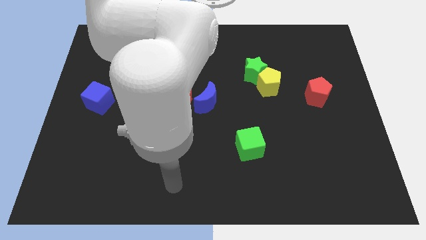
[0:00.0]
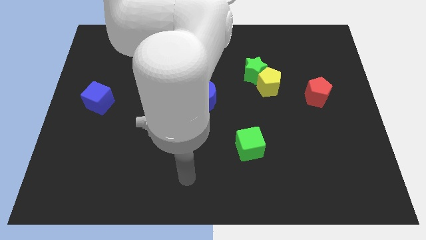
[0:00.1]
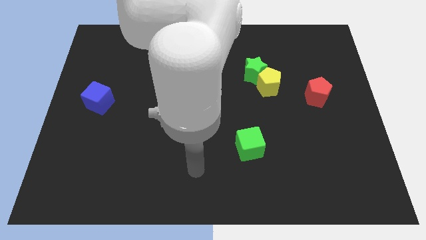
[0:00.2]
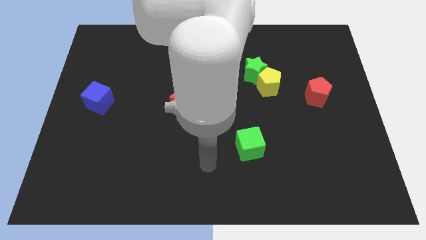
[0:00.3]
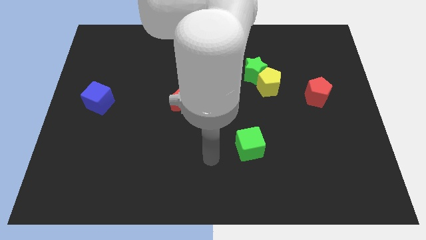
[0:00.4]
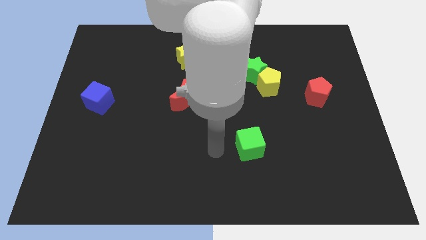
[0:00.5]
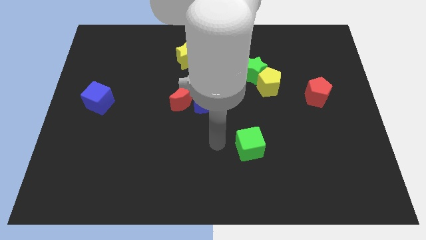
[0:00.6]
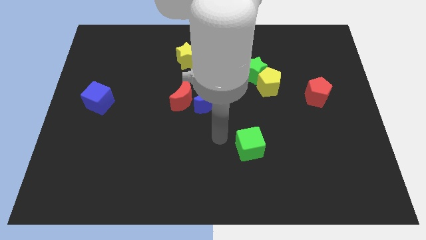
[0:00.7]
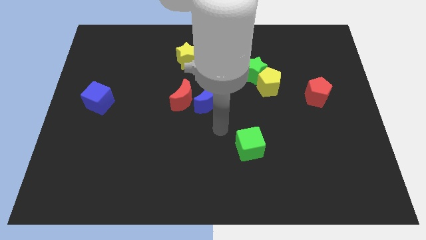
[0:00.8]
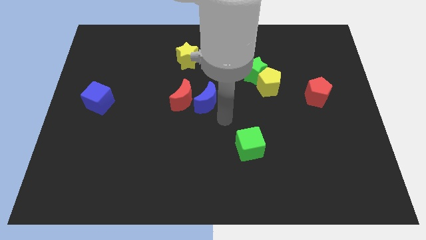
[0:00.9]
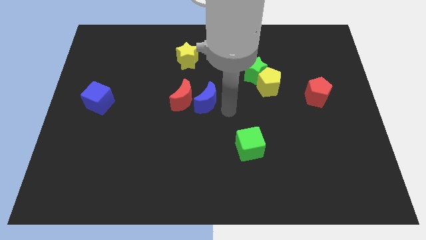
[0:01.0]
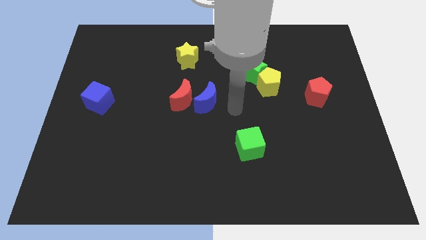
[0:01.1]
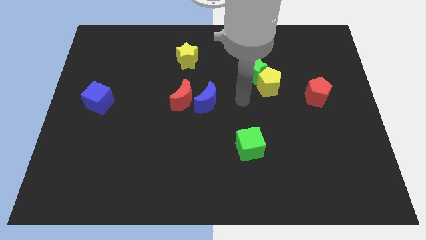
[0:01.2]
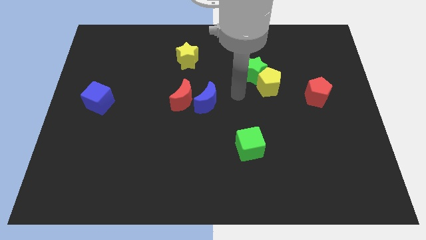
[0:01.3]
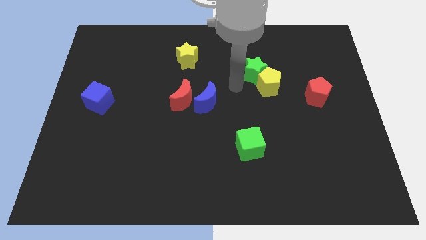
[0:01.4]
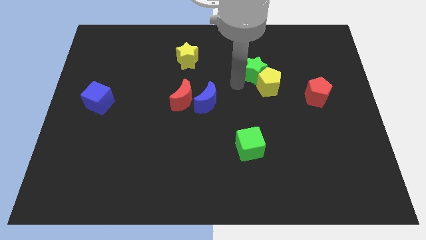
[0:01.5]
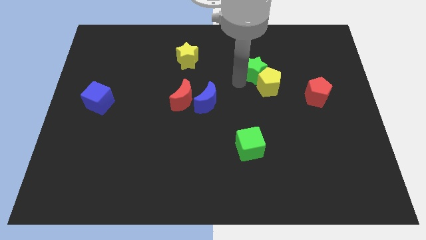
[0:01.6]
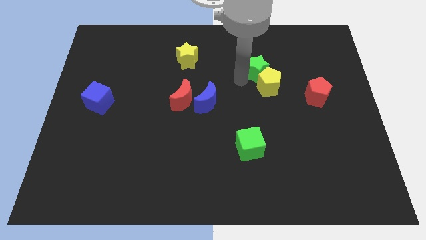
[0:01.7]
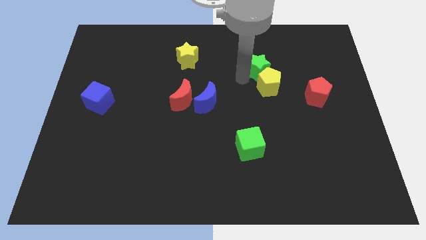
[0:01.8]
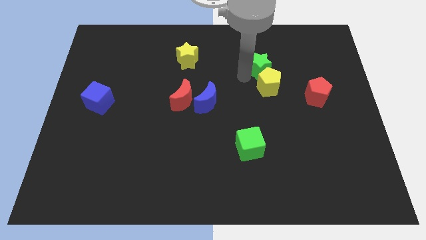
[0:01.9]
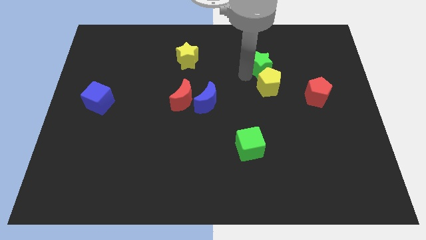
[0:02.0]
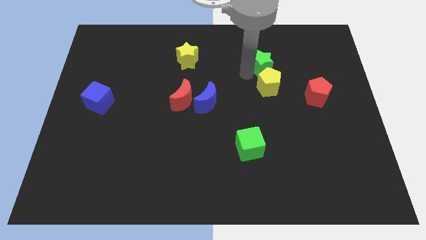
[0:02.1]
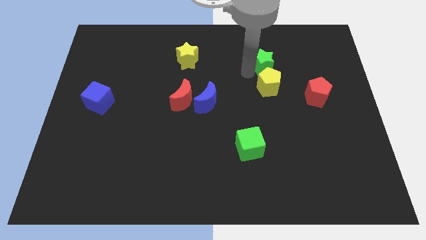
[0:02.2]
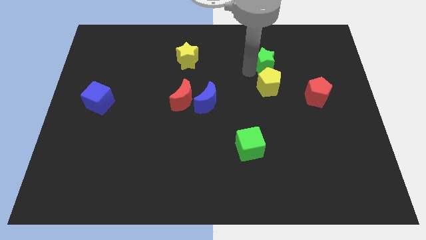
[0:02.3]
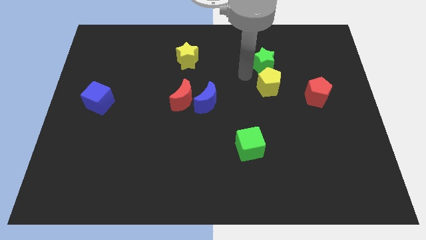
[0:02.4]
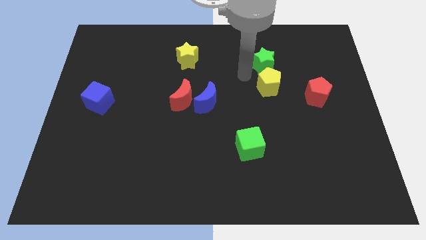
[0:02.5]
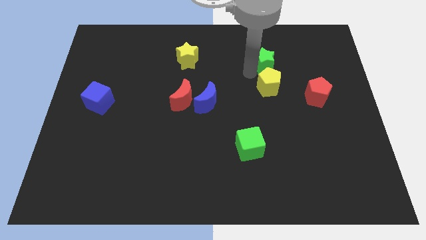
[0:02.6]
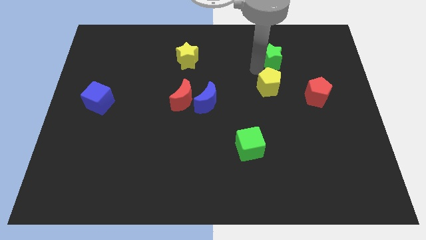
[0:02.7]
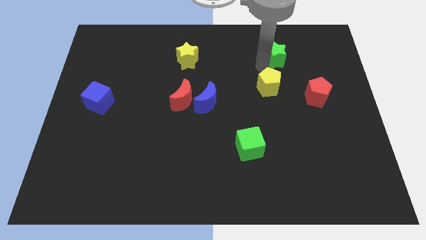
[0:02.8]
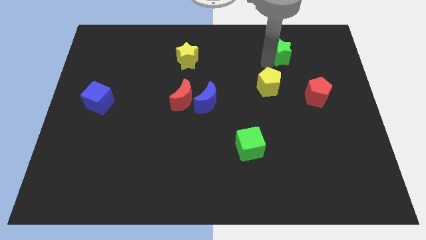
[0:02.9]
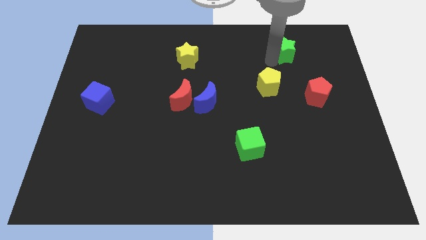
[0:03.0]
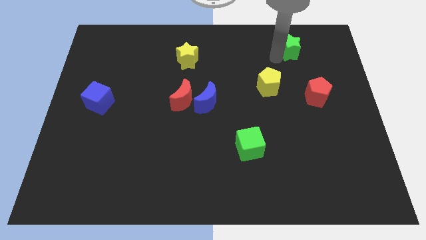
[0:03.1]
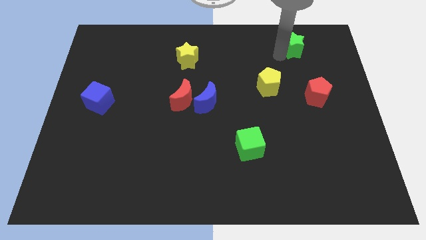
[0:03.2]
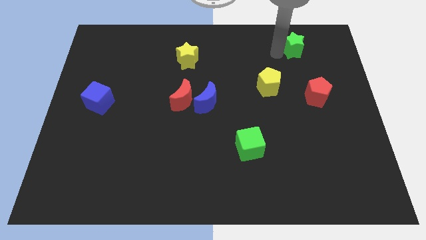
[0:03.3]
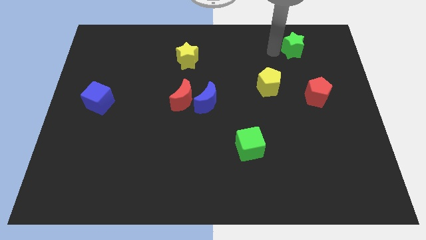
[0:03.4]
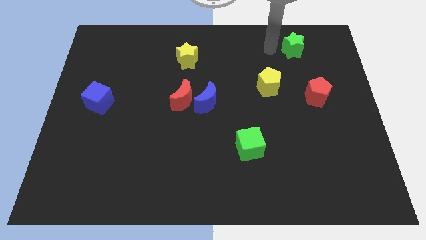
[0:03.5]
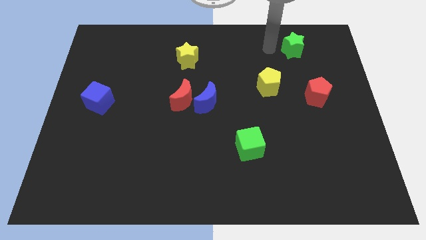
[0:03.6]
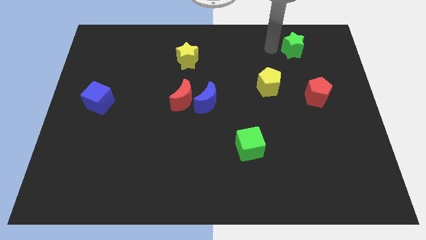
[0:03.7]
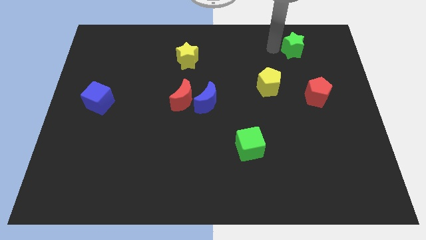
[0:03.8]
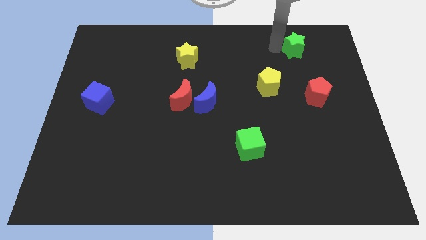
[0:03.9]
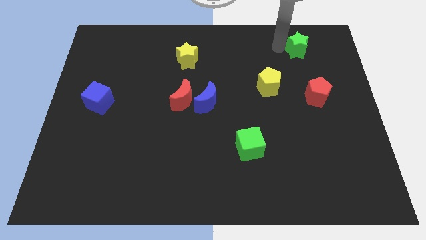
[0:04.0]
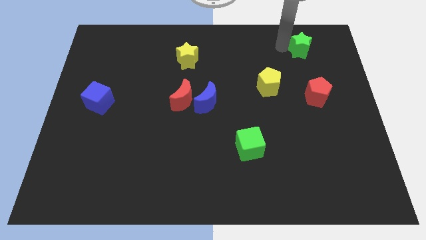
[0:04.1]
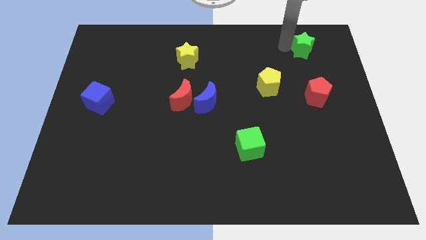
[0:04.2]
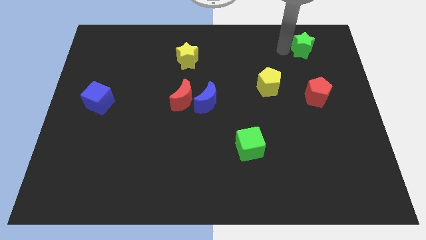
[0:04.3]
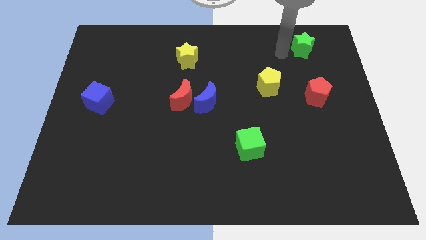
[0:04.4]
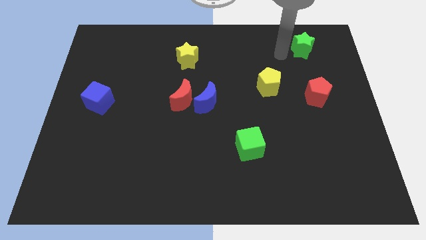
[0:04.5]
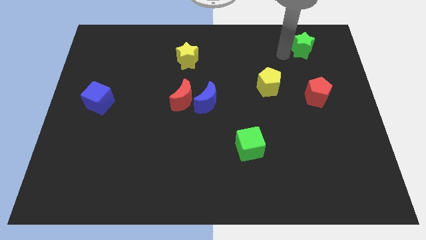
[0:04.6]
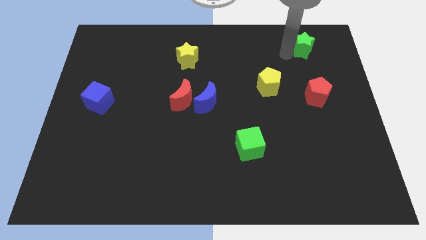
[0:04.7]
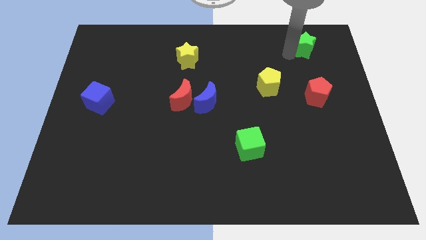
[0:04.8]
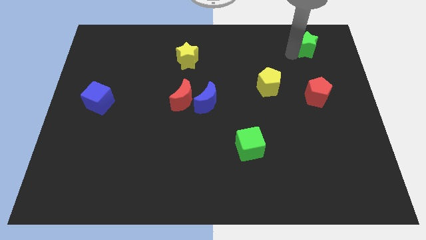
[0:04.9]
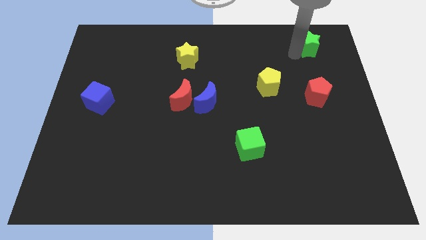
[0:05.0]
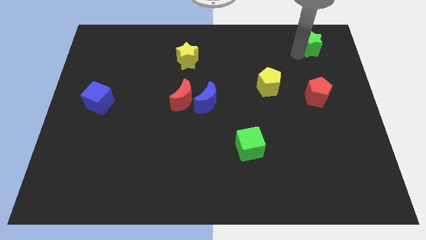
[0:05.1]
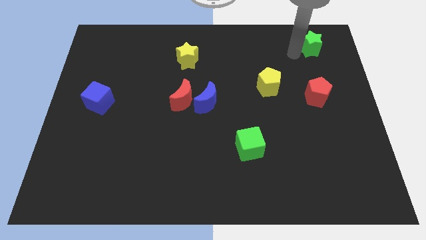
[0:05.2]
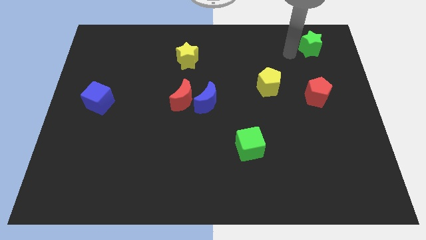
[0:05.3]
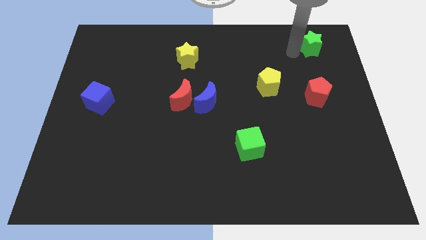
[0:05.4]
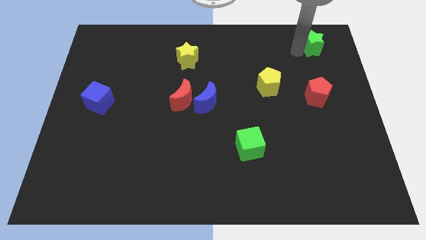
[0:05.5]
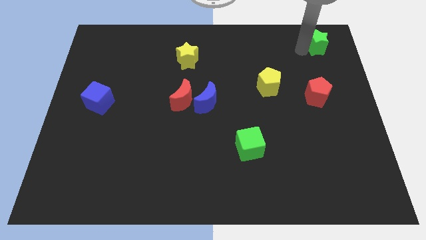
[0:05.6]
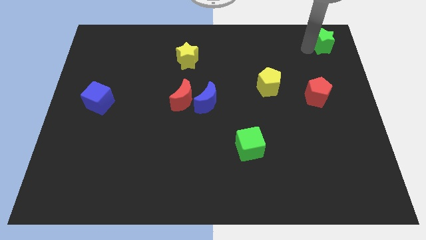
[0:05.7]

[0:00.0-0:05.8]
move the green star to the top right of the board

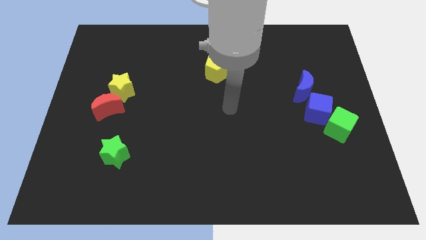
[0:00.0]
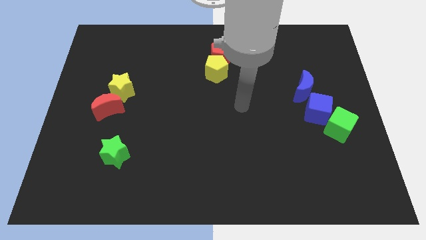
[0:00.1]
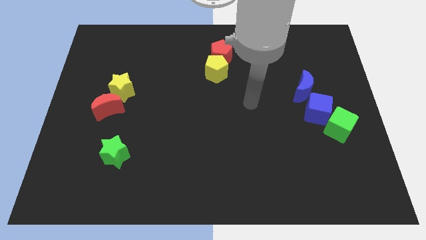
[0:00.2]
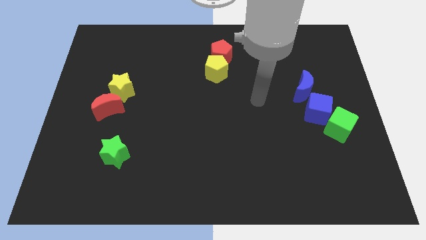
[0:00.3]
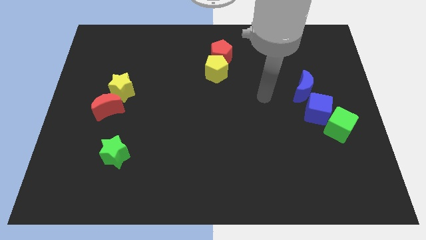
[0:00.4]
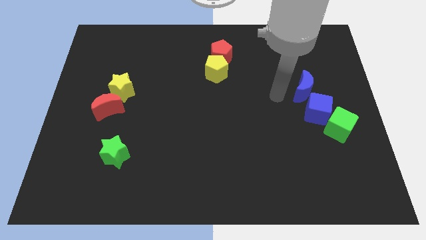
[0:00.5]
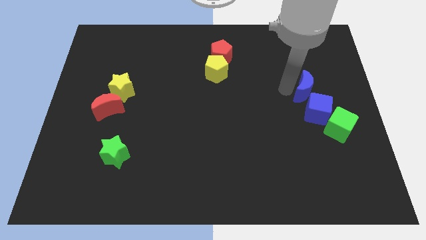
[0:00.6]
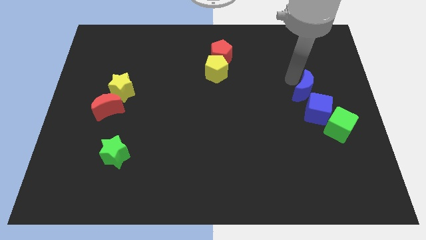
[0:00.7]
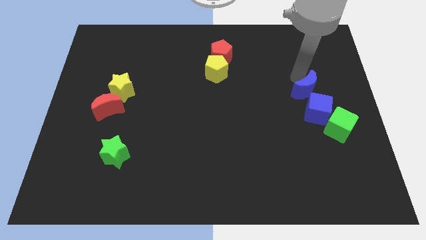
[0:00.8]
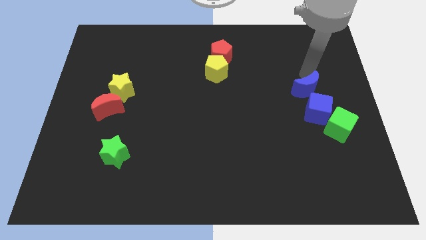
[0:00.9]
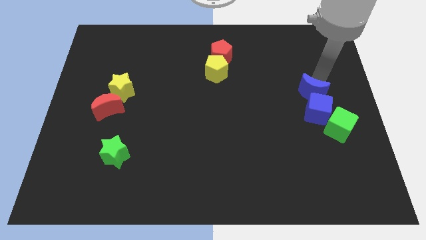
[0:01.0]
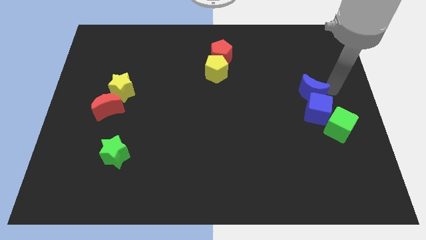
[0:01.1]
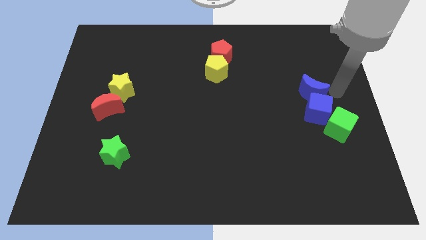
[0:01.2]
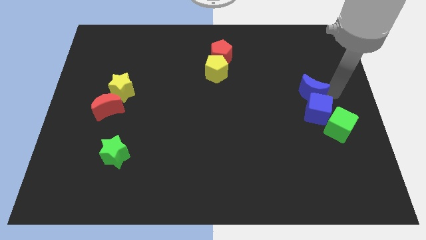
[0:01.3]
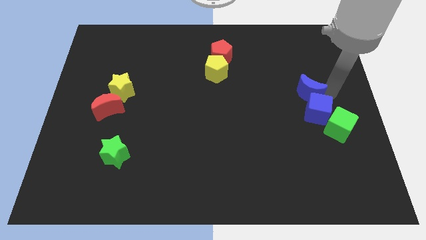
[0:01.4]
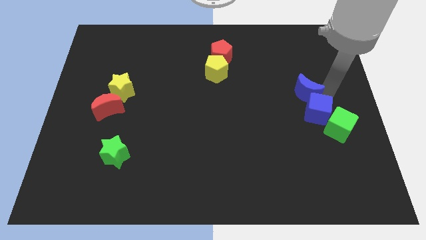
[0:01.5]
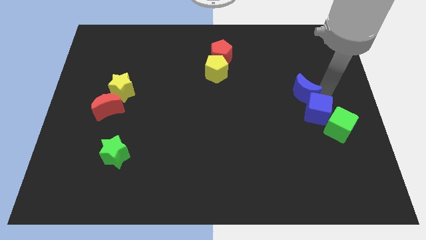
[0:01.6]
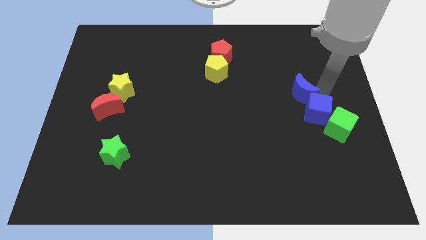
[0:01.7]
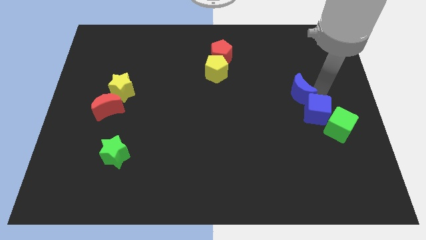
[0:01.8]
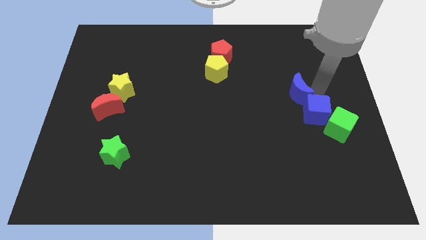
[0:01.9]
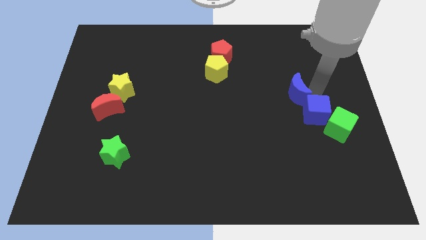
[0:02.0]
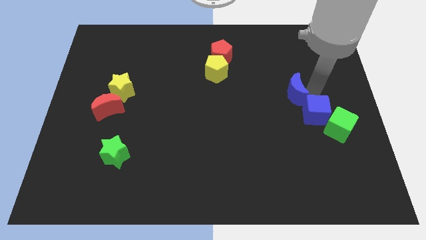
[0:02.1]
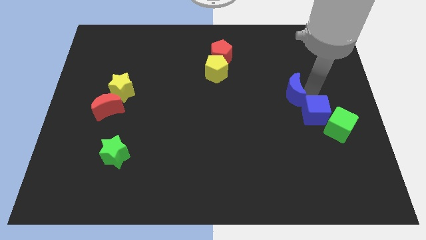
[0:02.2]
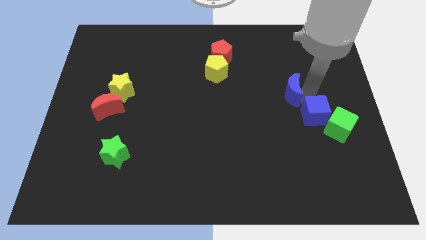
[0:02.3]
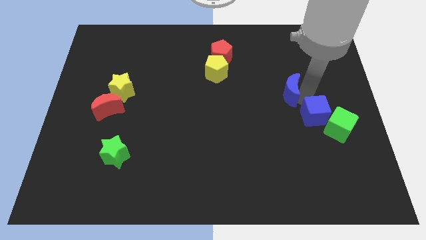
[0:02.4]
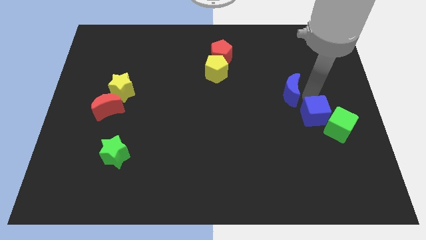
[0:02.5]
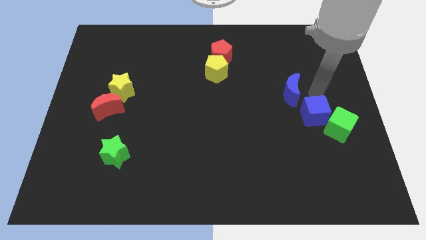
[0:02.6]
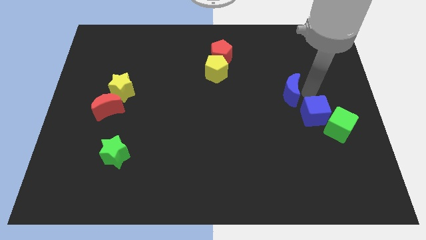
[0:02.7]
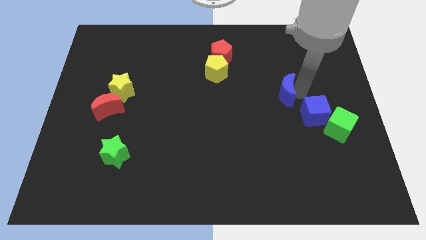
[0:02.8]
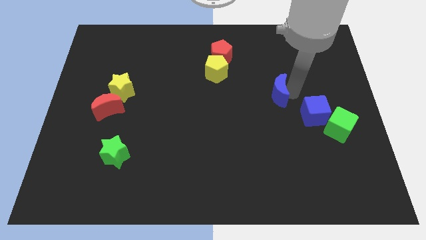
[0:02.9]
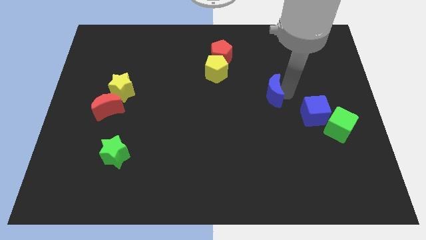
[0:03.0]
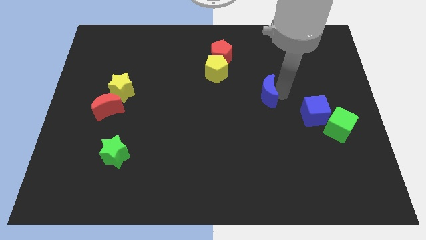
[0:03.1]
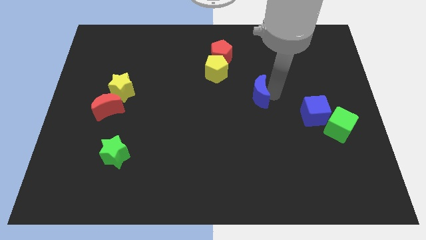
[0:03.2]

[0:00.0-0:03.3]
push the blue moon to the center
